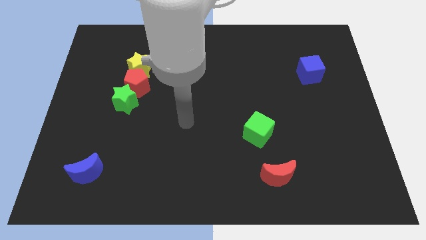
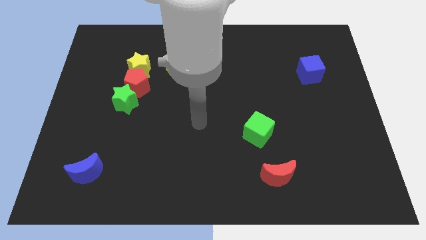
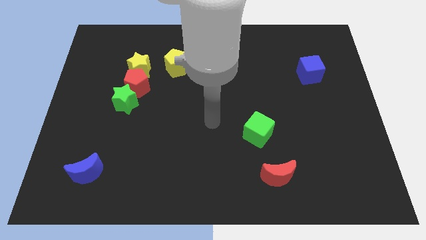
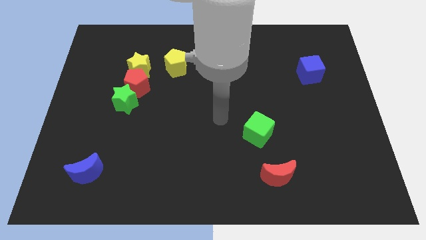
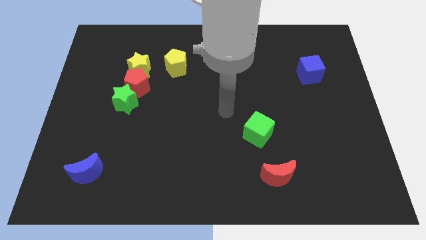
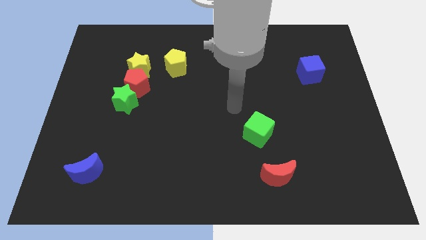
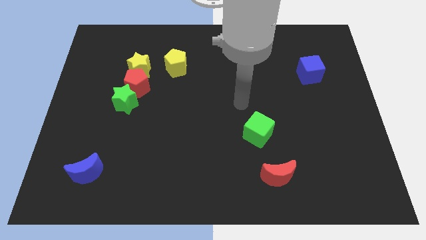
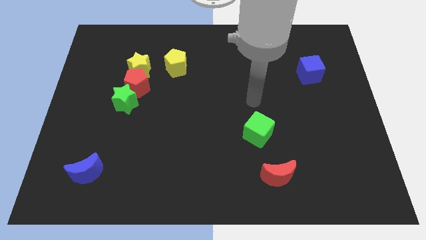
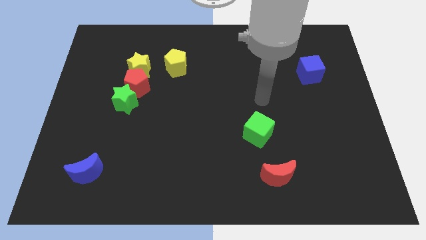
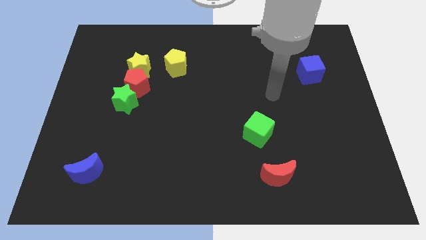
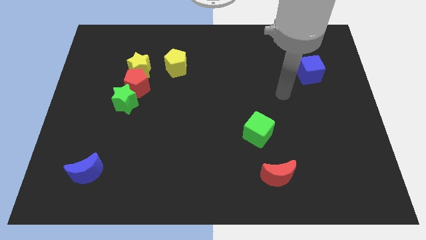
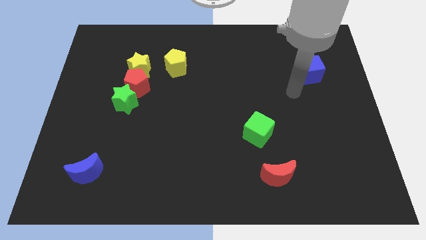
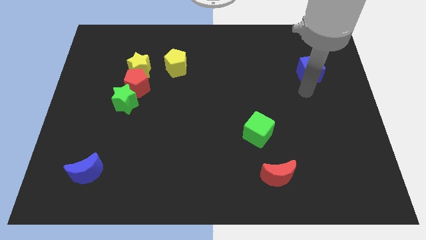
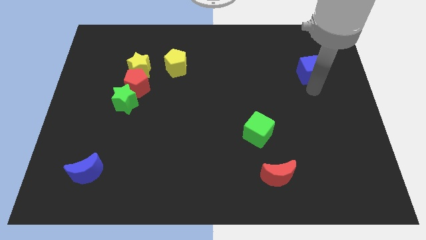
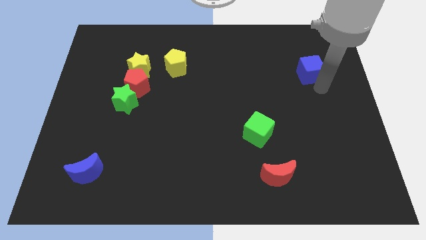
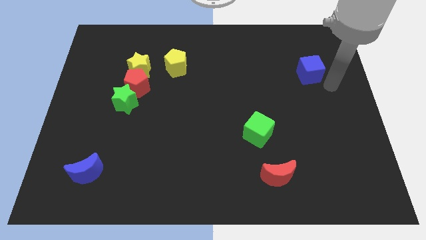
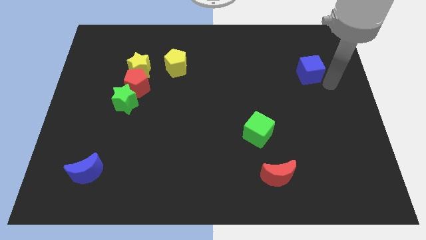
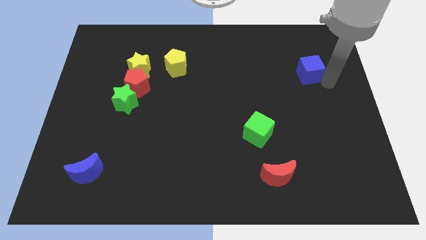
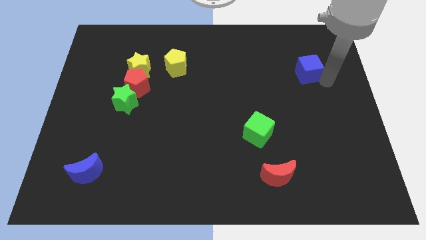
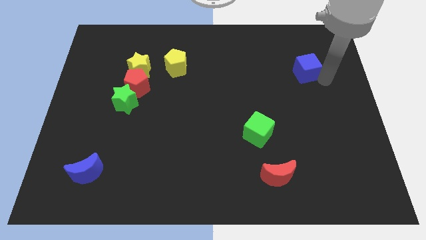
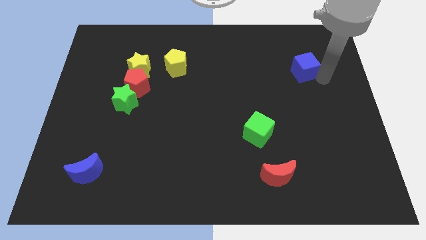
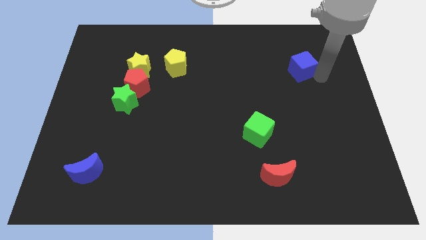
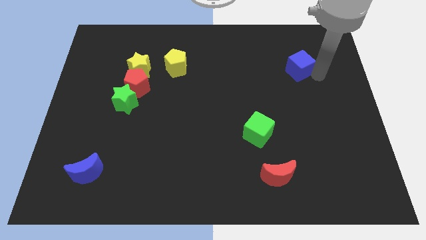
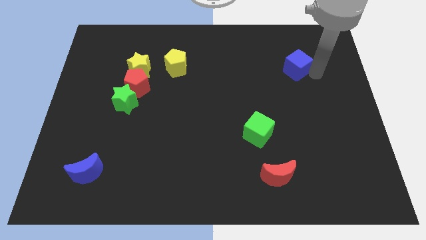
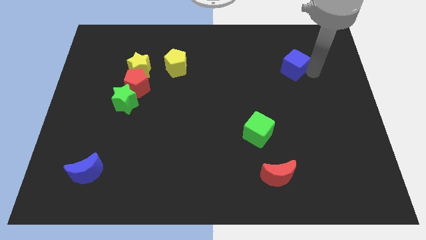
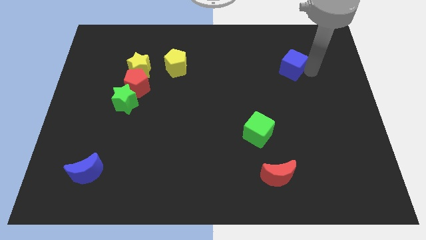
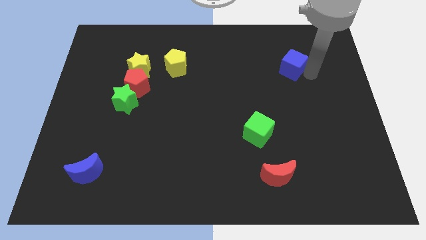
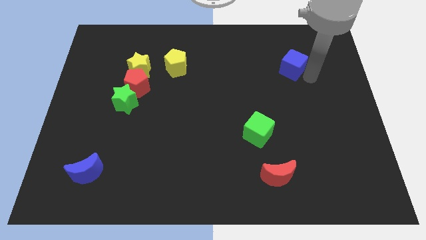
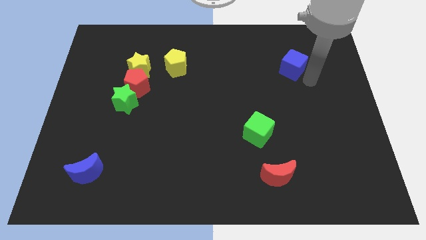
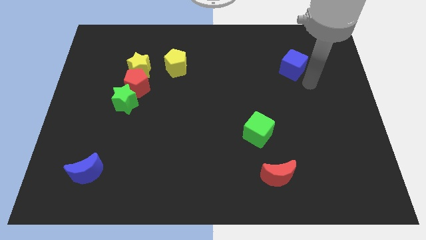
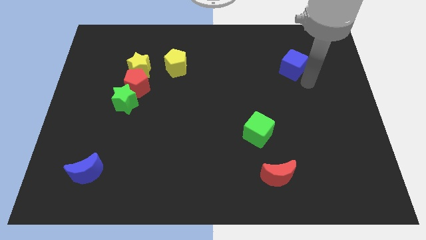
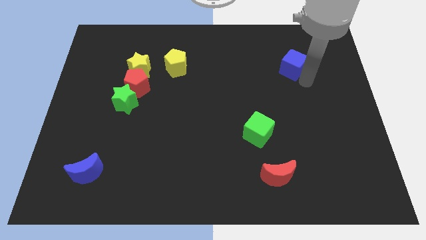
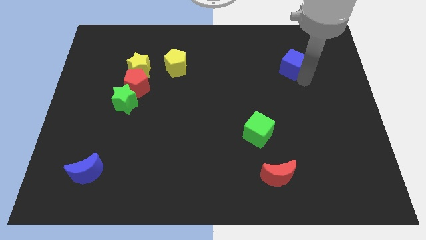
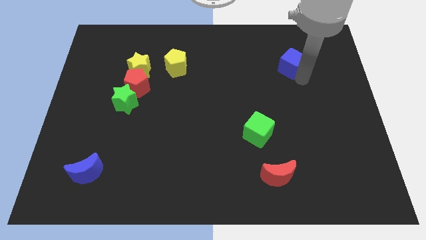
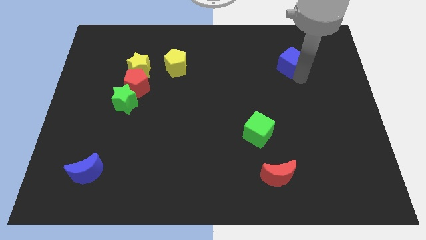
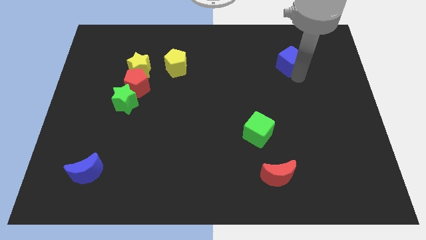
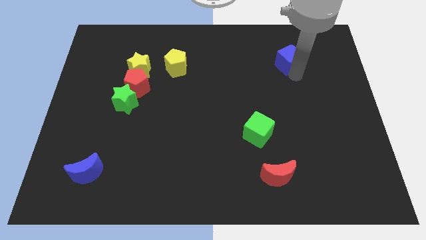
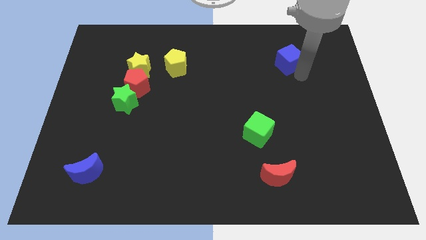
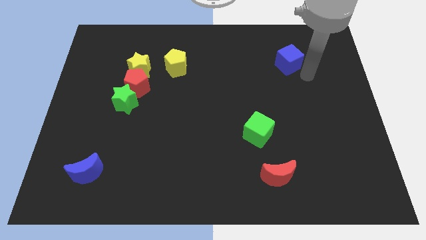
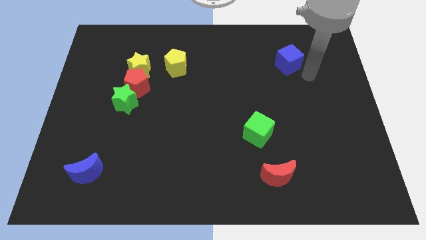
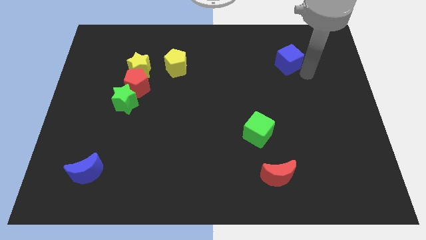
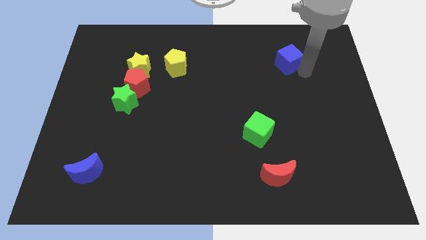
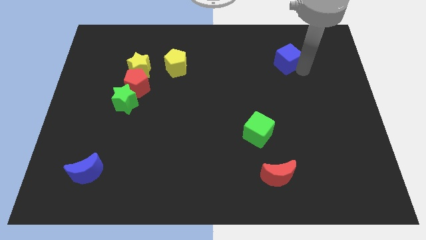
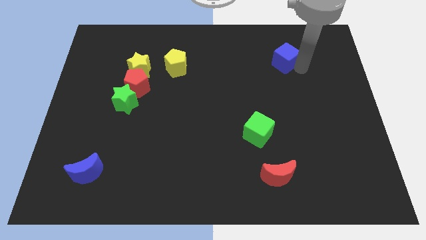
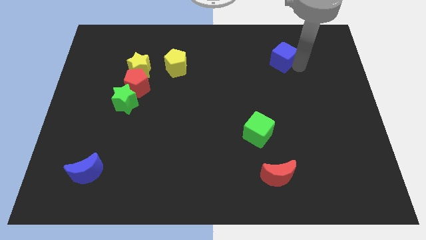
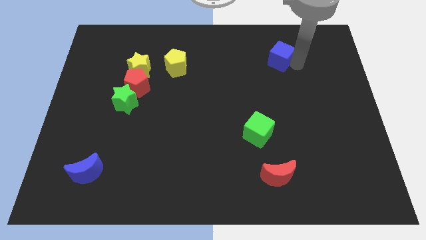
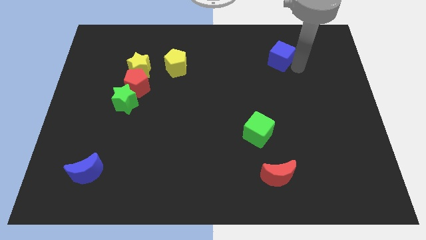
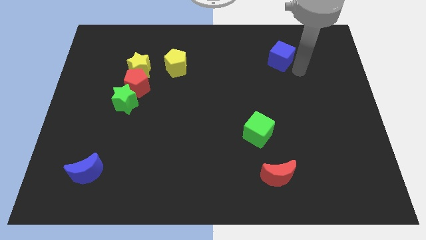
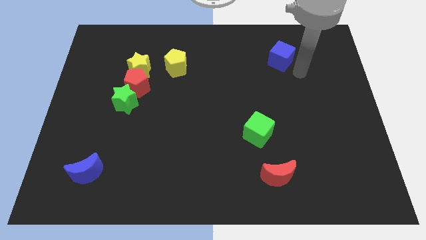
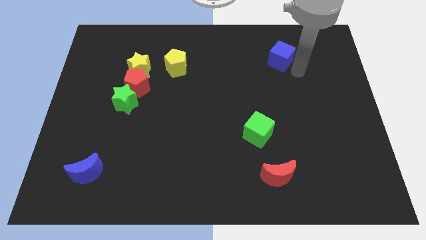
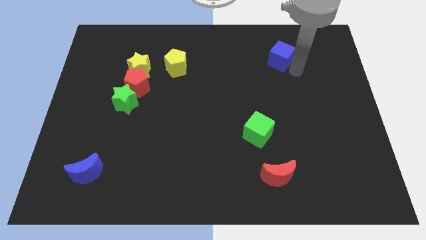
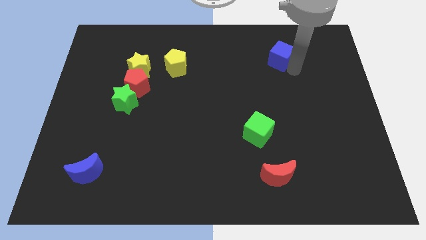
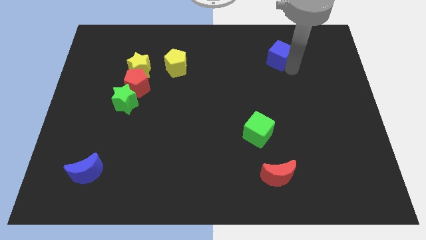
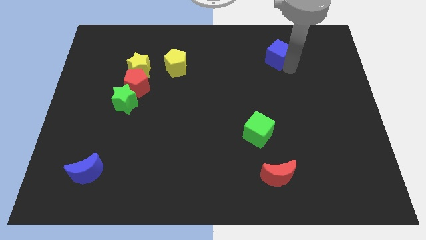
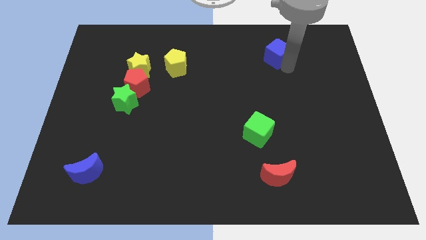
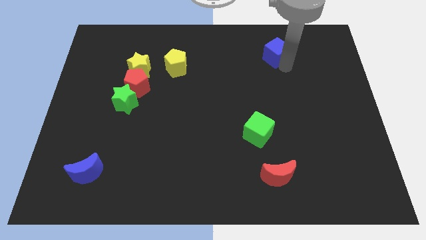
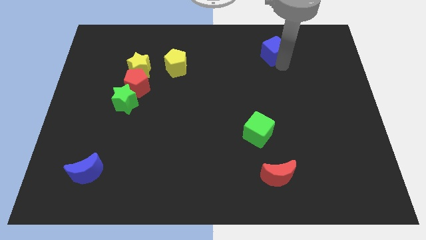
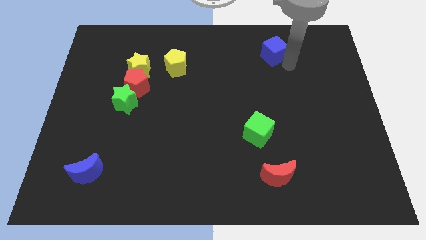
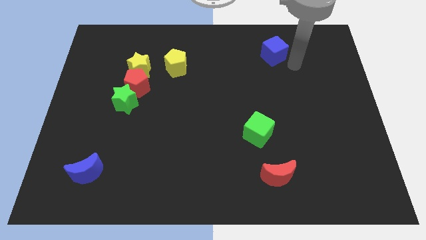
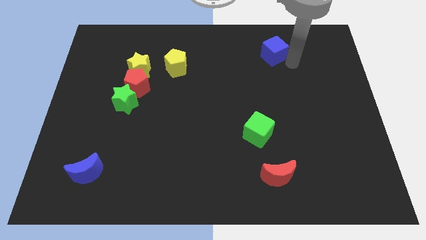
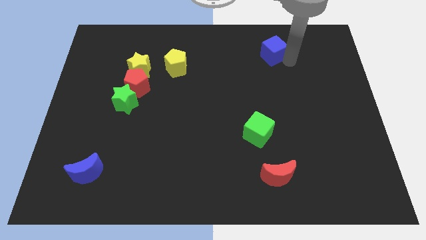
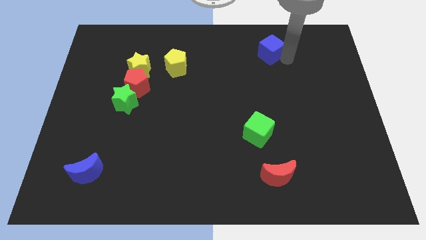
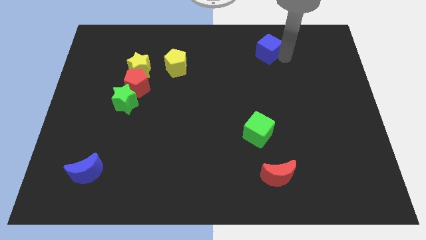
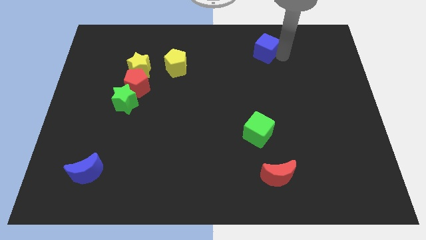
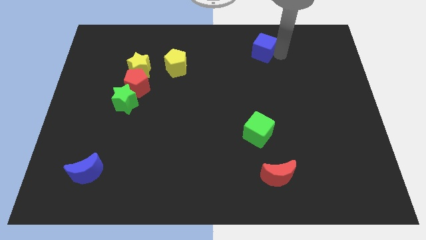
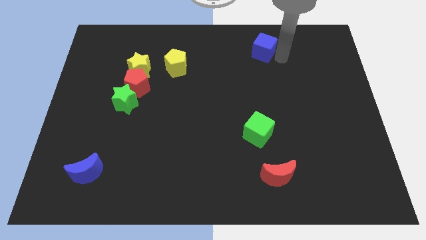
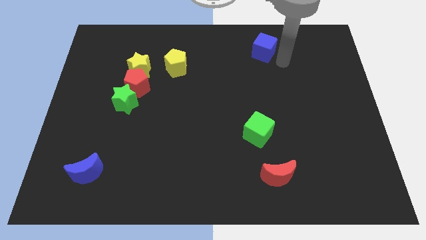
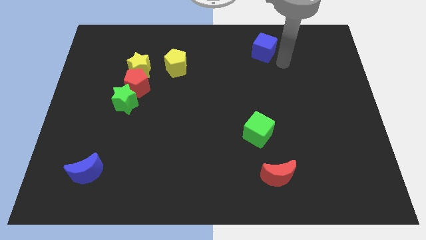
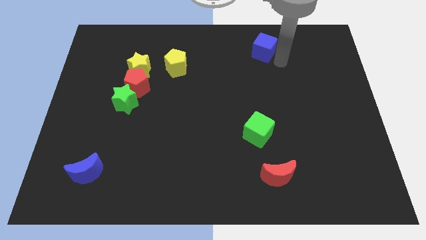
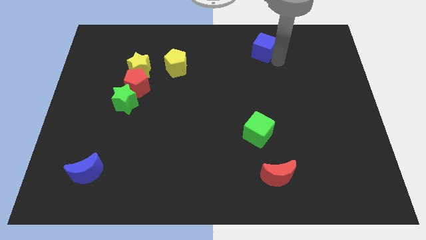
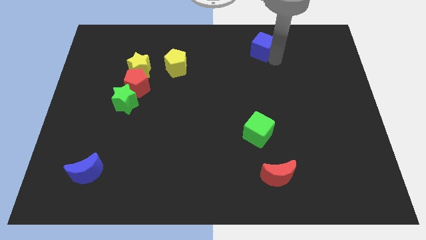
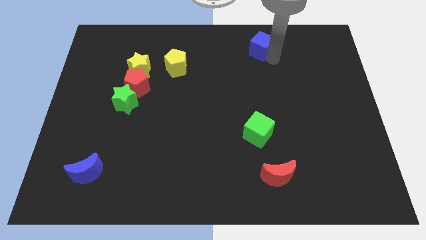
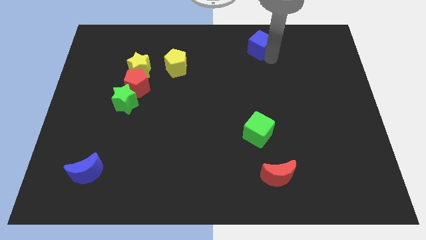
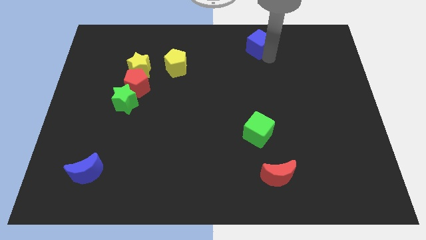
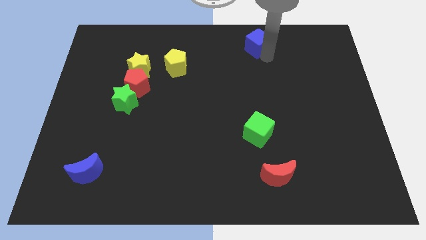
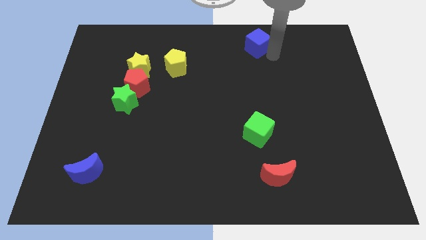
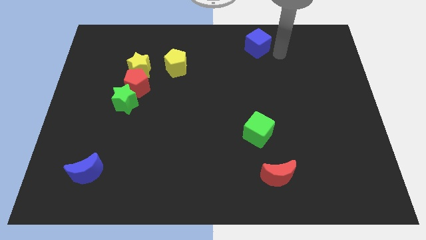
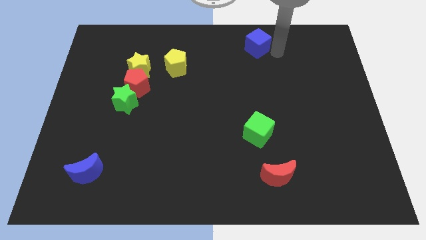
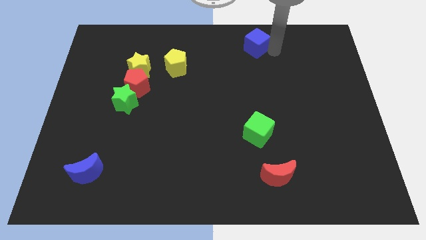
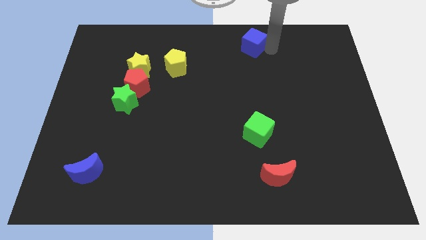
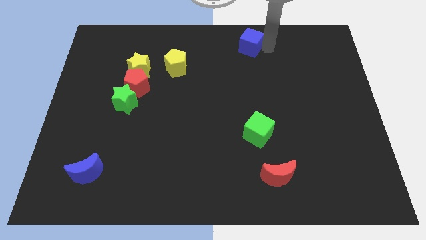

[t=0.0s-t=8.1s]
put the blue cube to the towards your base
